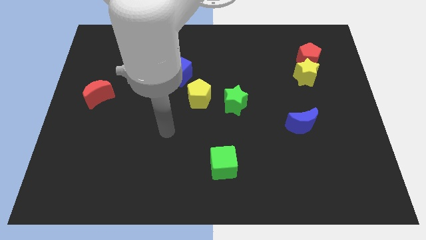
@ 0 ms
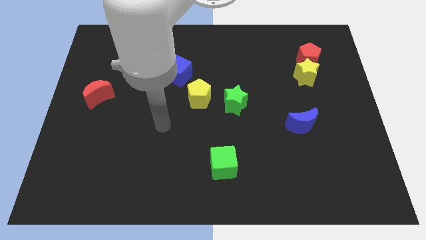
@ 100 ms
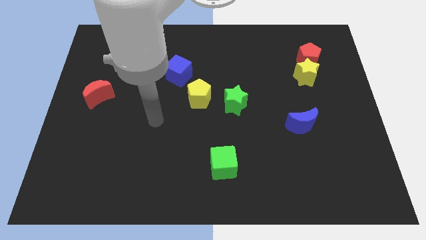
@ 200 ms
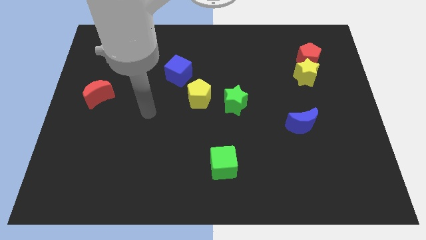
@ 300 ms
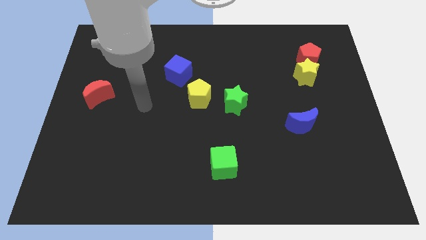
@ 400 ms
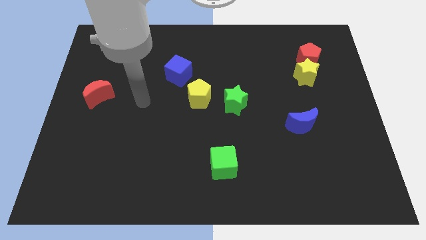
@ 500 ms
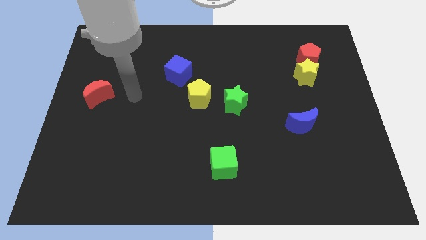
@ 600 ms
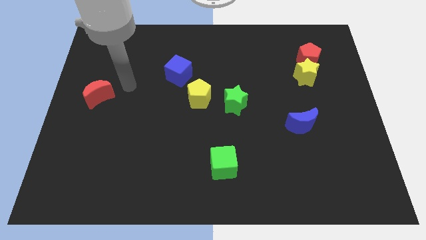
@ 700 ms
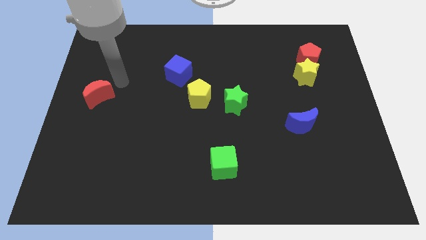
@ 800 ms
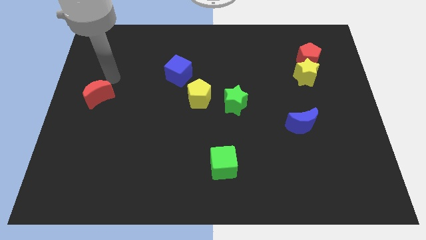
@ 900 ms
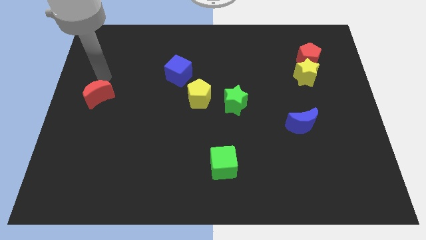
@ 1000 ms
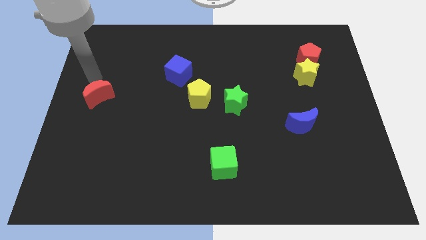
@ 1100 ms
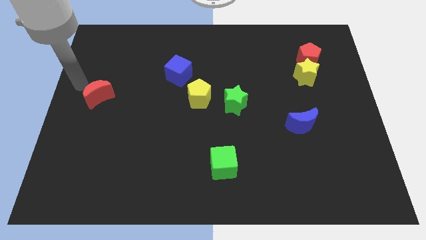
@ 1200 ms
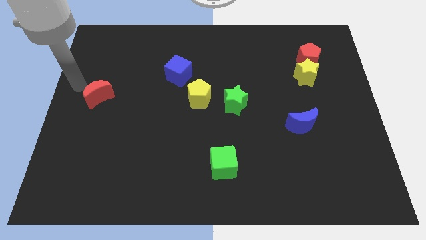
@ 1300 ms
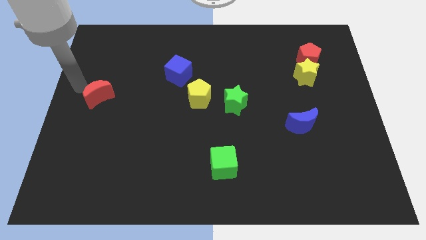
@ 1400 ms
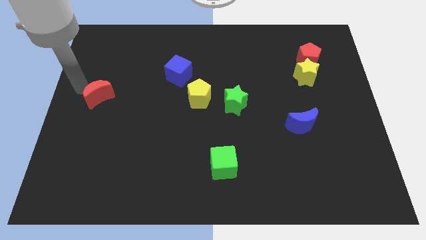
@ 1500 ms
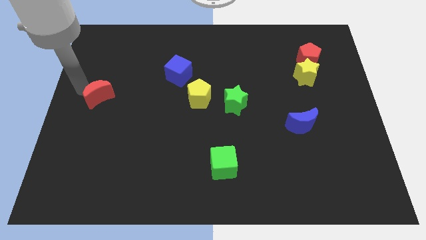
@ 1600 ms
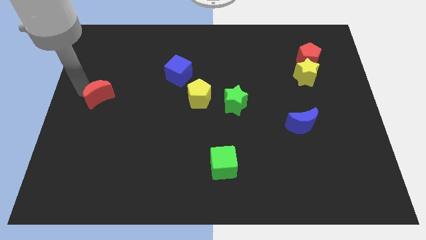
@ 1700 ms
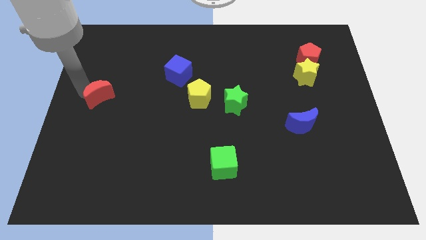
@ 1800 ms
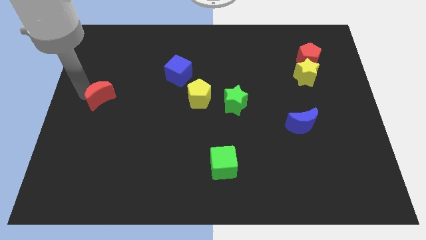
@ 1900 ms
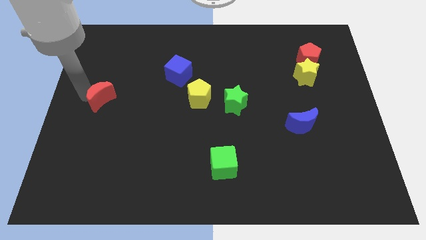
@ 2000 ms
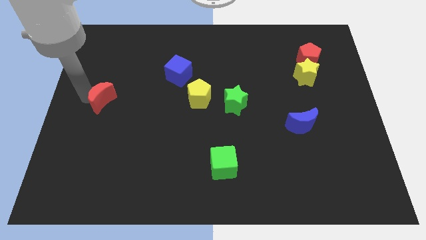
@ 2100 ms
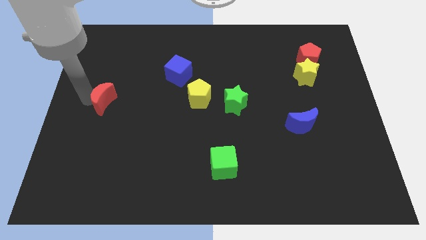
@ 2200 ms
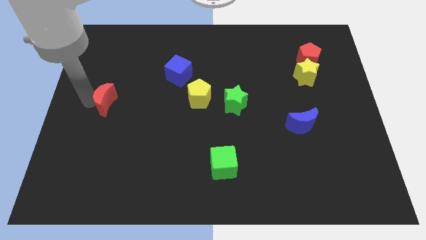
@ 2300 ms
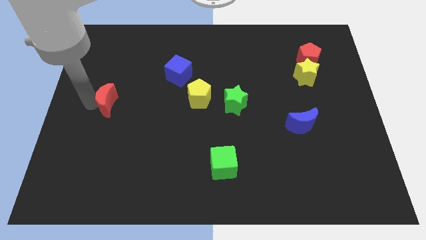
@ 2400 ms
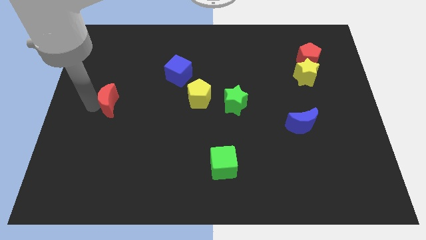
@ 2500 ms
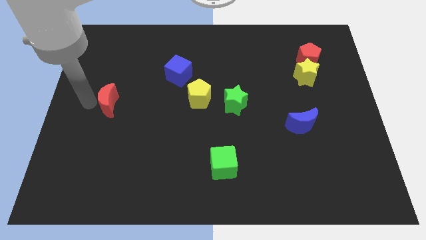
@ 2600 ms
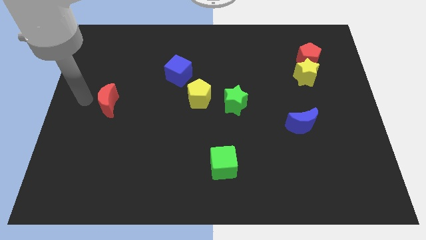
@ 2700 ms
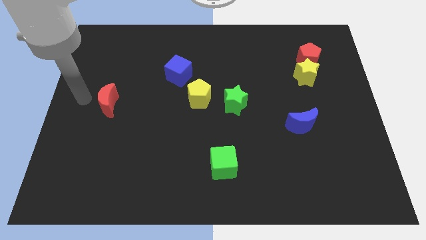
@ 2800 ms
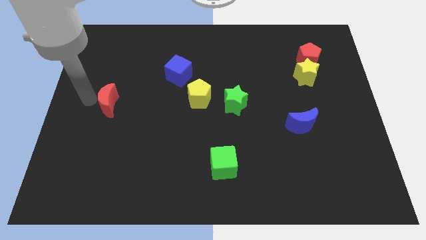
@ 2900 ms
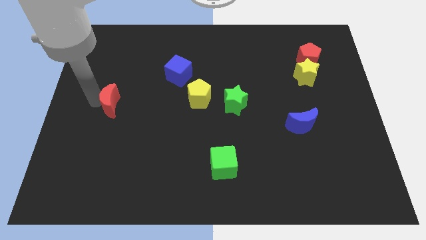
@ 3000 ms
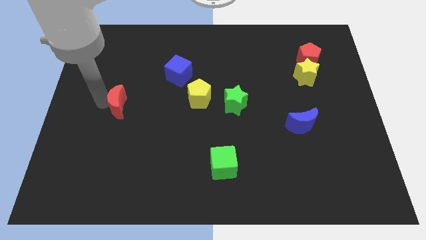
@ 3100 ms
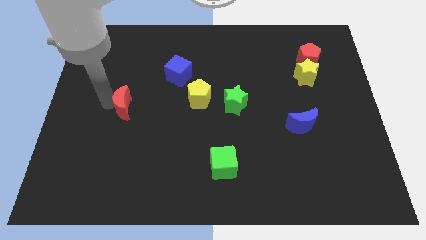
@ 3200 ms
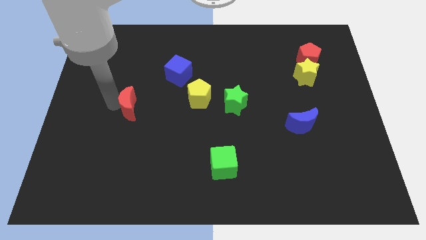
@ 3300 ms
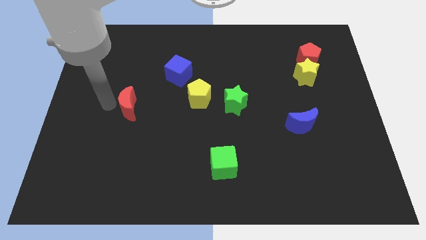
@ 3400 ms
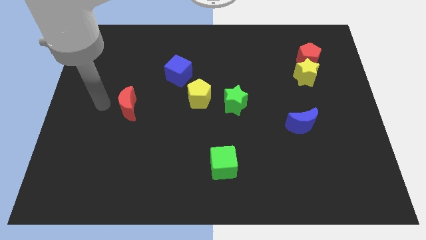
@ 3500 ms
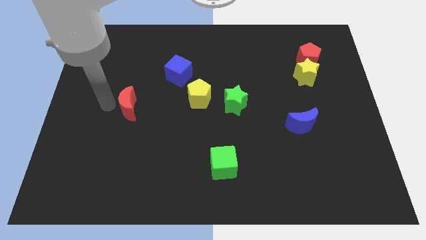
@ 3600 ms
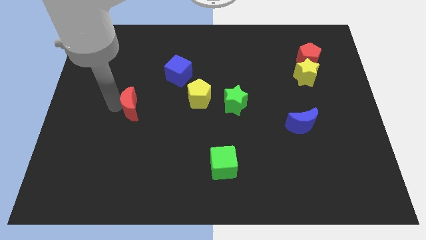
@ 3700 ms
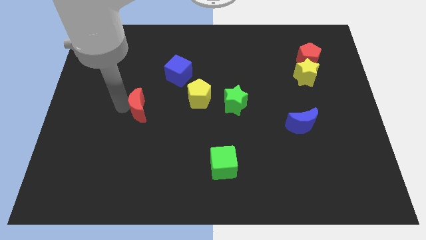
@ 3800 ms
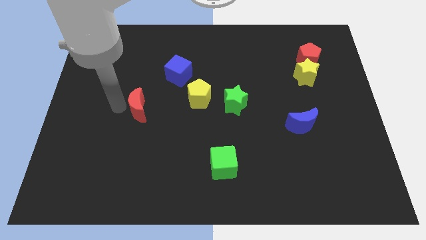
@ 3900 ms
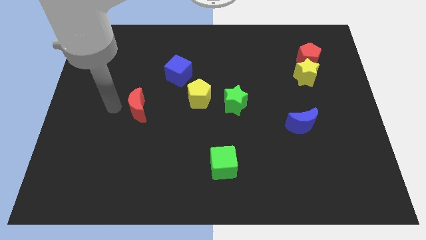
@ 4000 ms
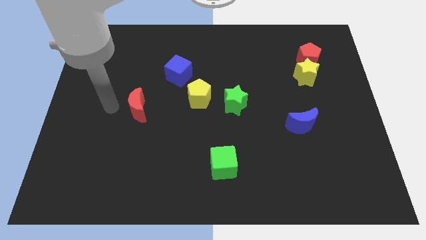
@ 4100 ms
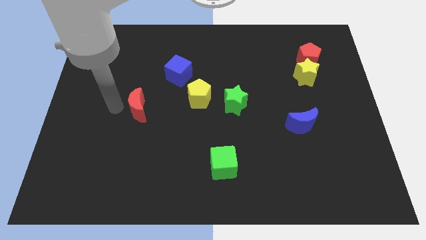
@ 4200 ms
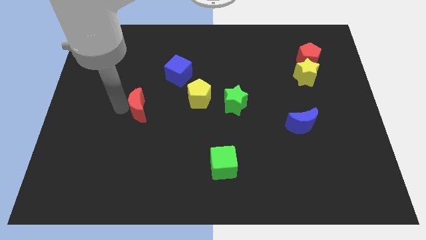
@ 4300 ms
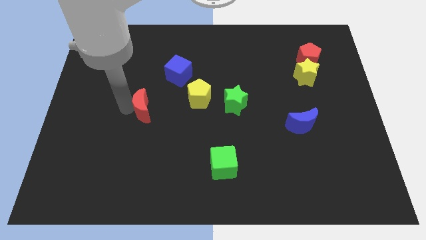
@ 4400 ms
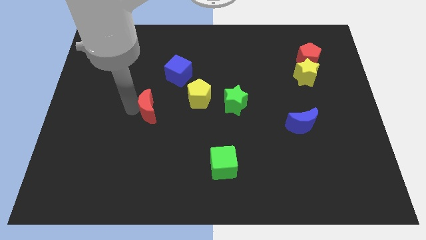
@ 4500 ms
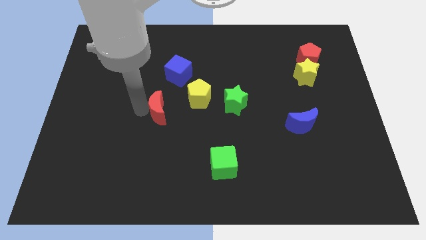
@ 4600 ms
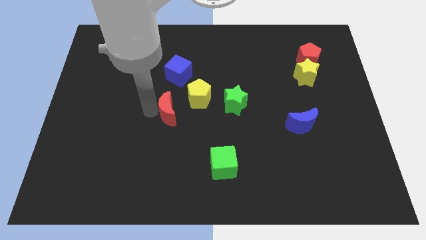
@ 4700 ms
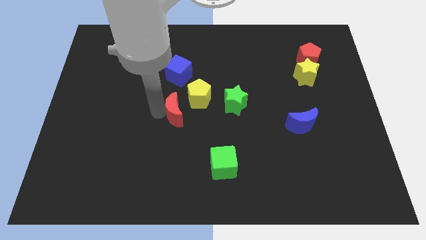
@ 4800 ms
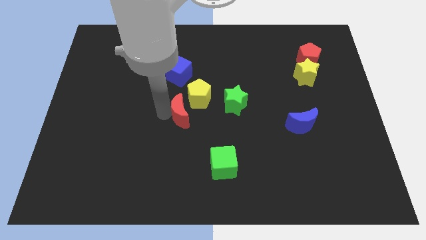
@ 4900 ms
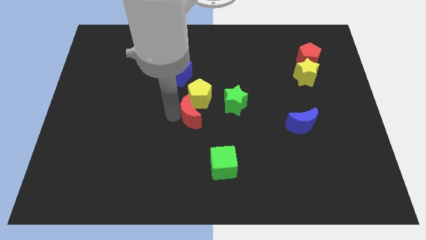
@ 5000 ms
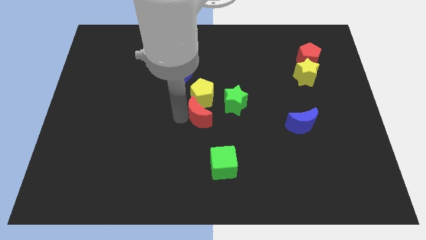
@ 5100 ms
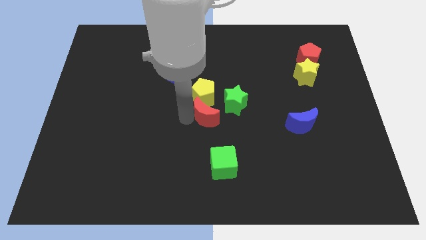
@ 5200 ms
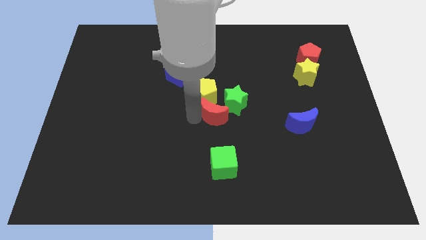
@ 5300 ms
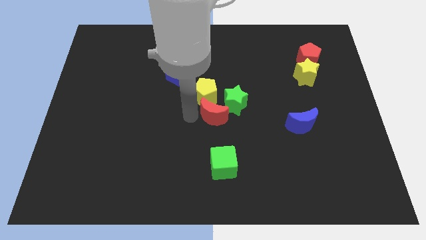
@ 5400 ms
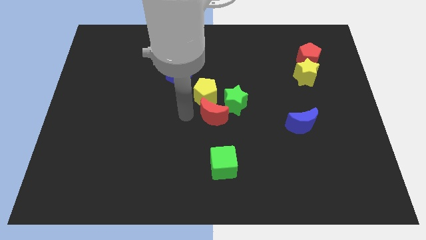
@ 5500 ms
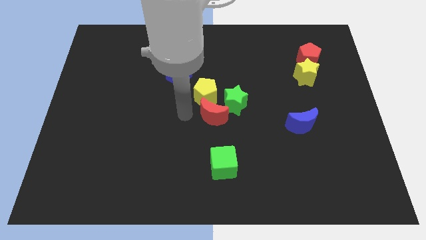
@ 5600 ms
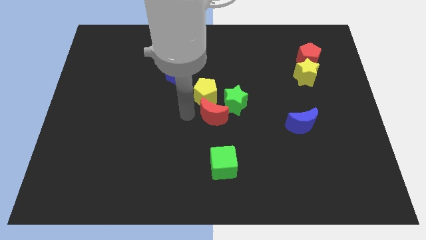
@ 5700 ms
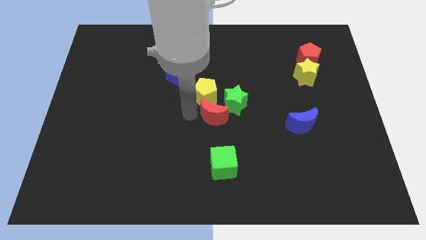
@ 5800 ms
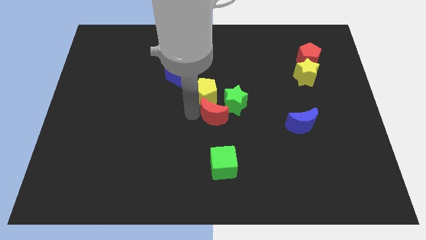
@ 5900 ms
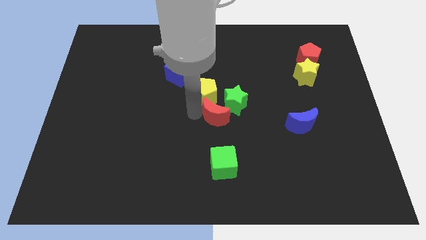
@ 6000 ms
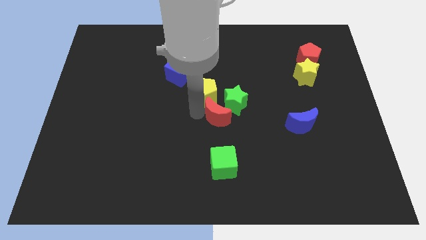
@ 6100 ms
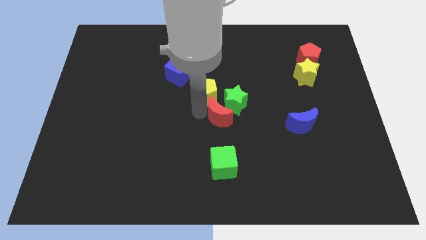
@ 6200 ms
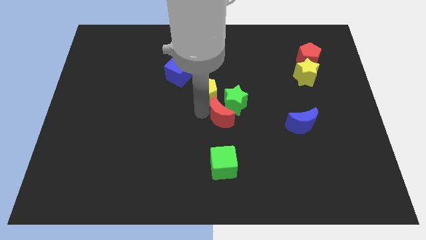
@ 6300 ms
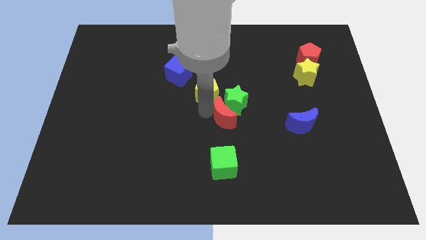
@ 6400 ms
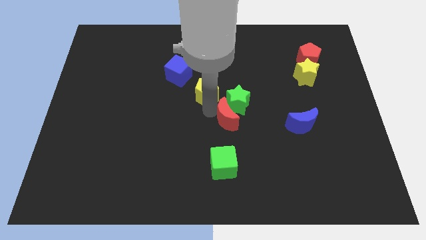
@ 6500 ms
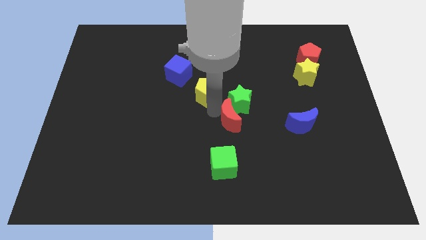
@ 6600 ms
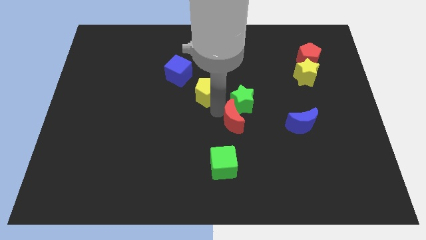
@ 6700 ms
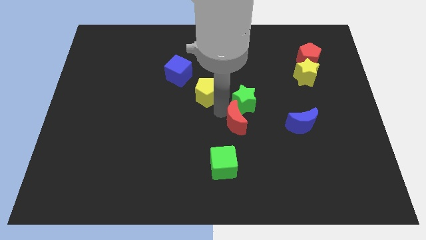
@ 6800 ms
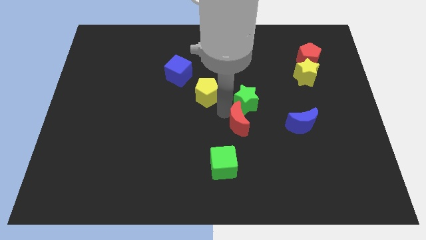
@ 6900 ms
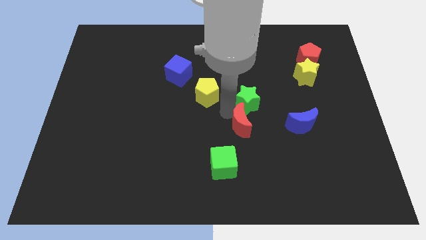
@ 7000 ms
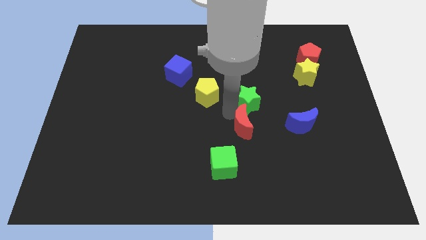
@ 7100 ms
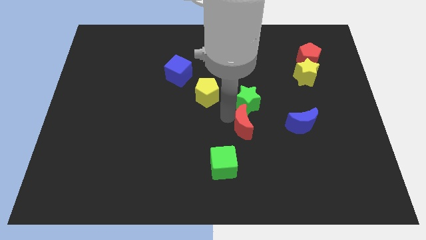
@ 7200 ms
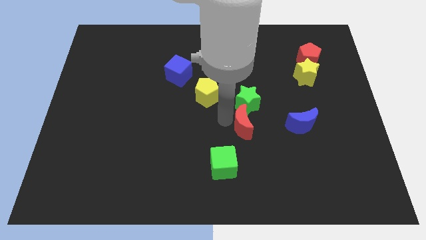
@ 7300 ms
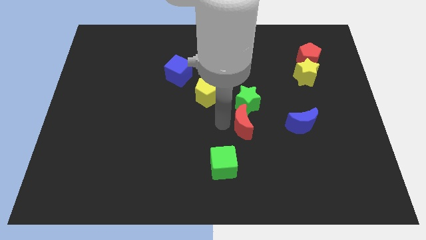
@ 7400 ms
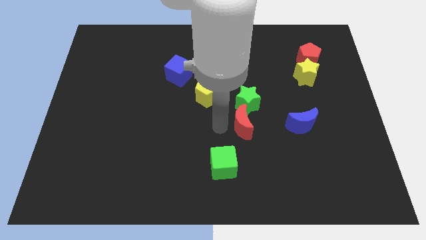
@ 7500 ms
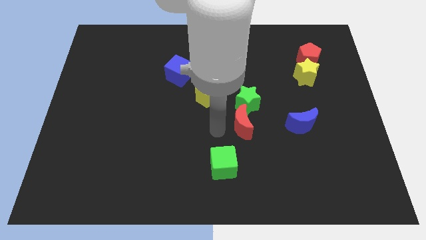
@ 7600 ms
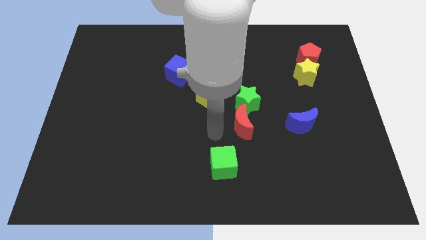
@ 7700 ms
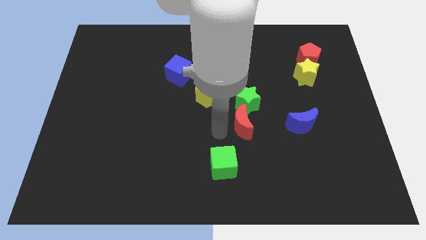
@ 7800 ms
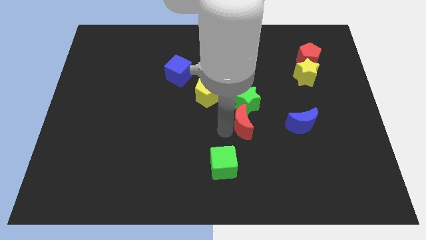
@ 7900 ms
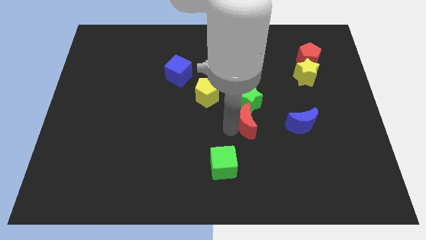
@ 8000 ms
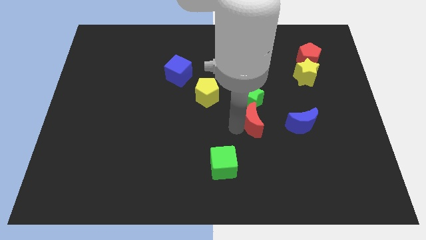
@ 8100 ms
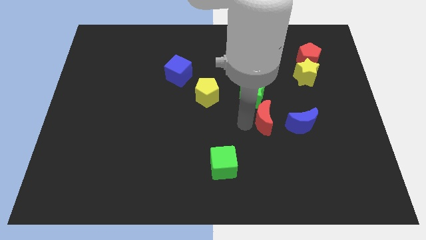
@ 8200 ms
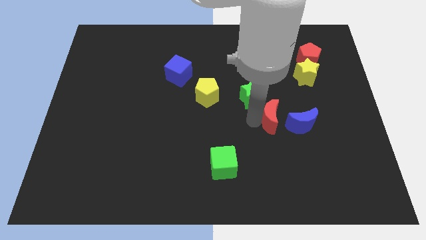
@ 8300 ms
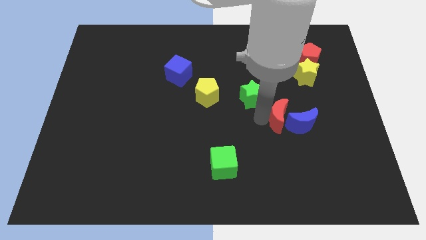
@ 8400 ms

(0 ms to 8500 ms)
put the red moon towards the blue moon
